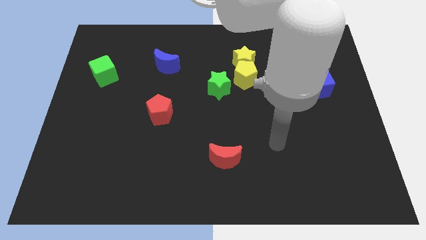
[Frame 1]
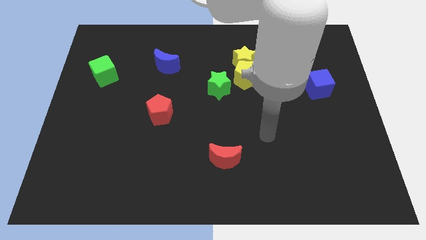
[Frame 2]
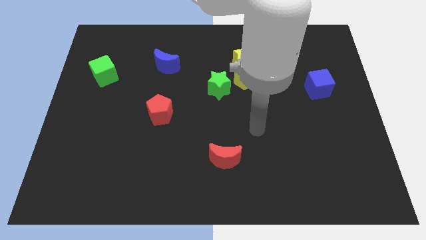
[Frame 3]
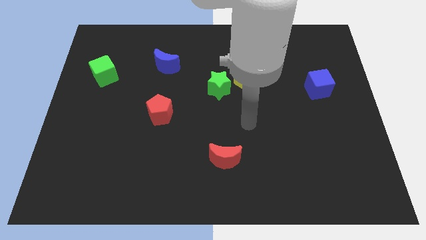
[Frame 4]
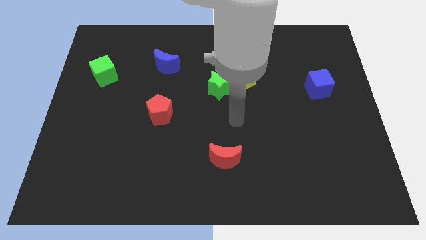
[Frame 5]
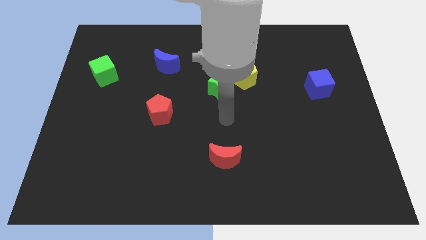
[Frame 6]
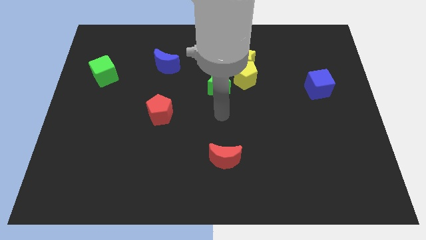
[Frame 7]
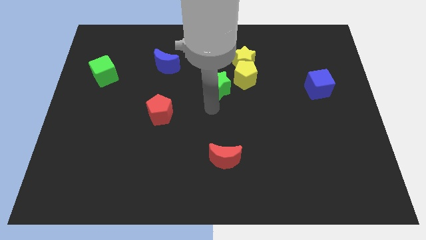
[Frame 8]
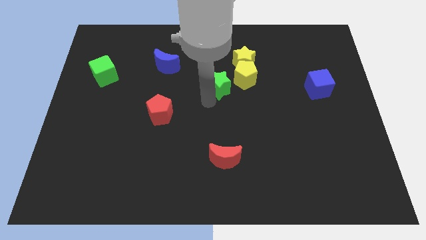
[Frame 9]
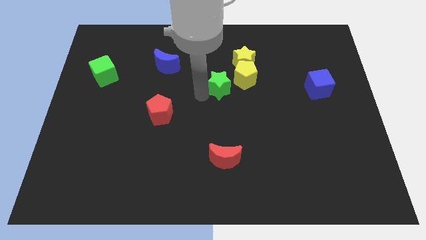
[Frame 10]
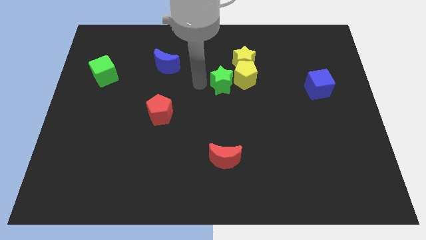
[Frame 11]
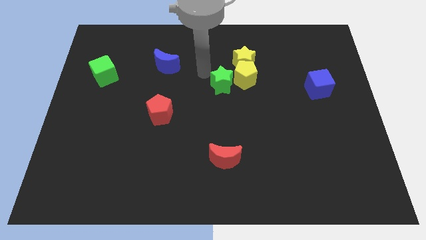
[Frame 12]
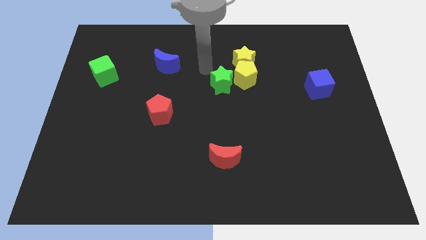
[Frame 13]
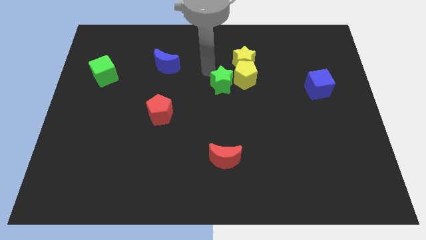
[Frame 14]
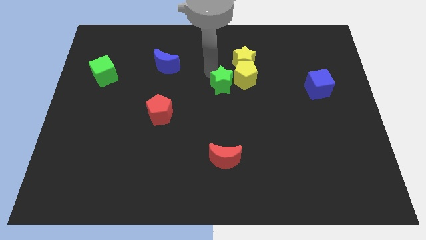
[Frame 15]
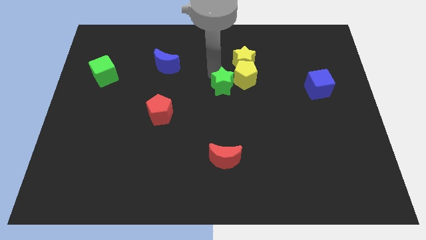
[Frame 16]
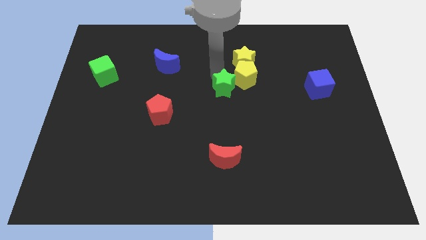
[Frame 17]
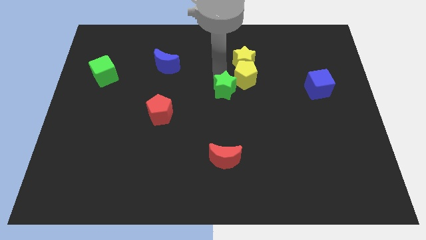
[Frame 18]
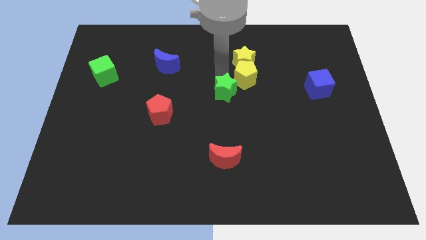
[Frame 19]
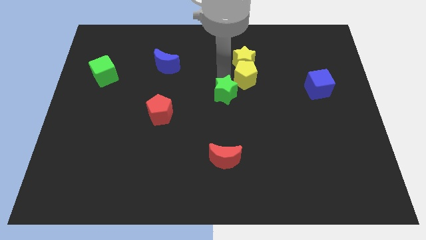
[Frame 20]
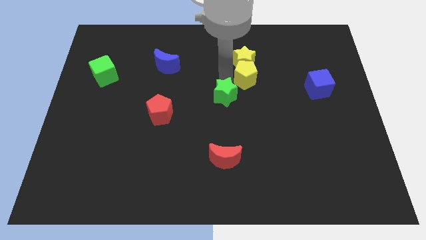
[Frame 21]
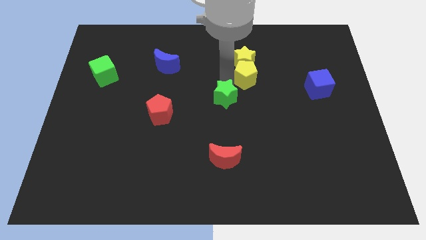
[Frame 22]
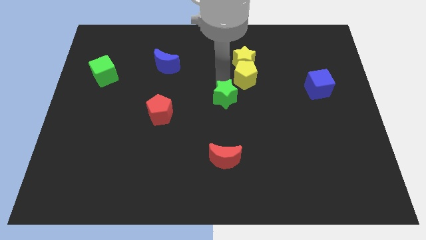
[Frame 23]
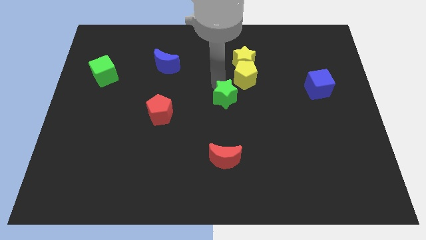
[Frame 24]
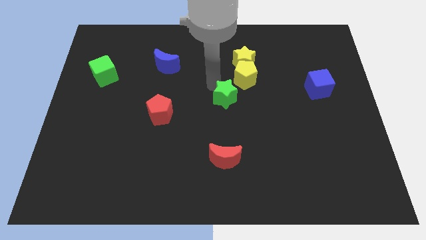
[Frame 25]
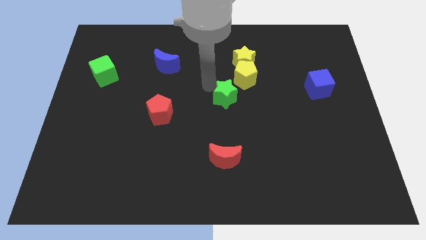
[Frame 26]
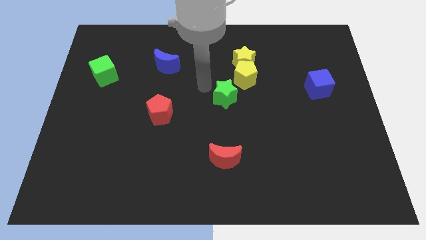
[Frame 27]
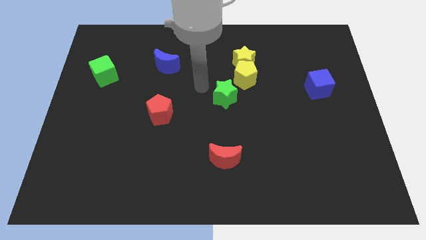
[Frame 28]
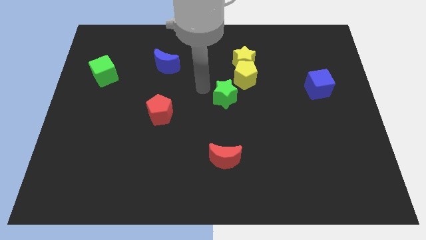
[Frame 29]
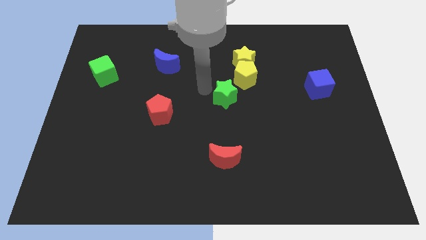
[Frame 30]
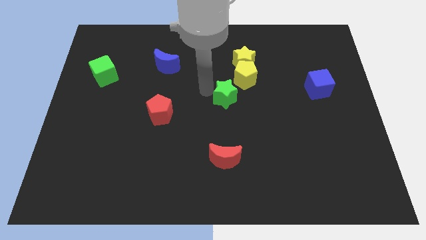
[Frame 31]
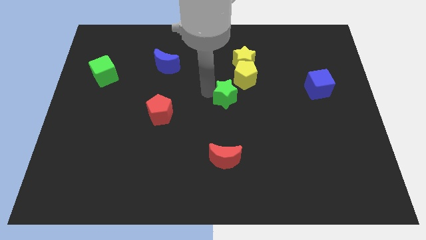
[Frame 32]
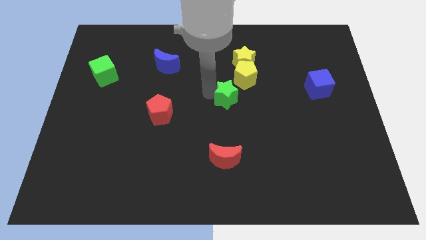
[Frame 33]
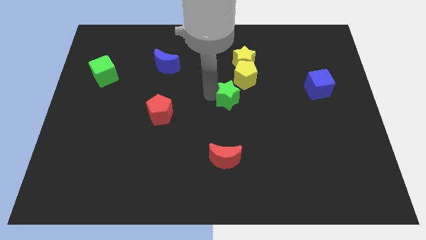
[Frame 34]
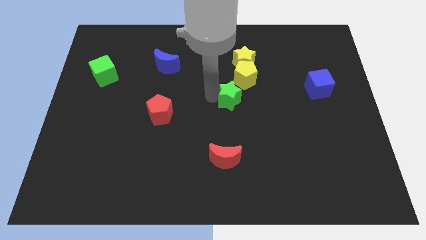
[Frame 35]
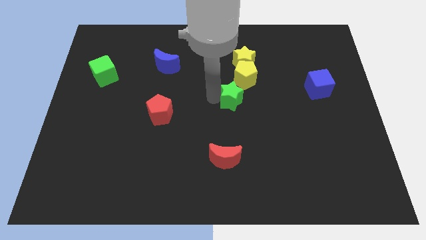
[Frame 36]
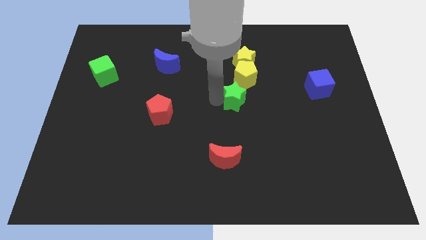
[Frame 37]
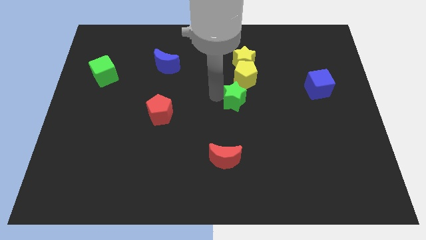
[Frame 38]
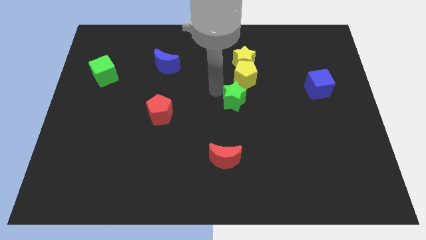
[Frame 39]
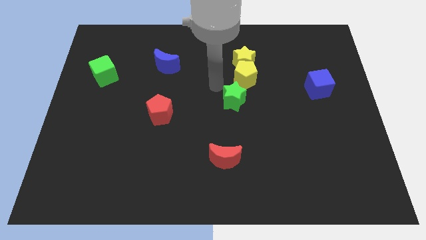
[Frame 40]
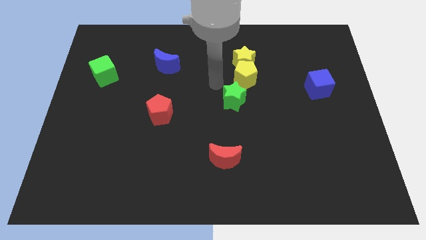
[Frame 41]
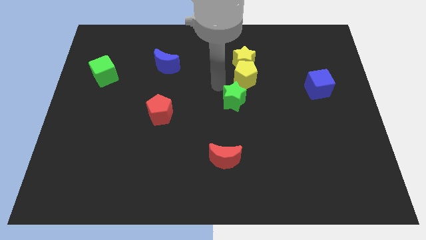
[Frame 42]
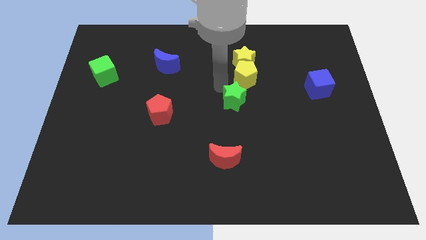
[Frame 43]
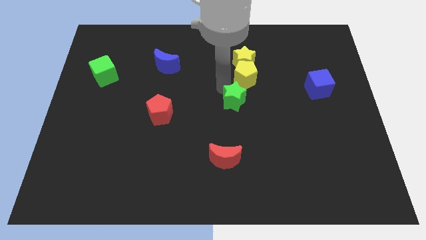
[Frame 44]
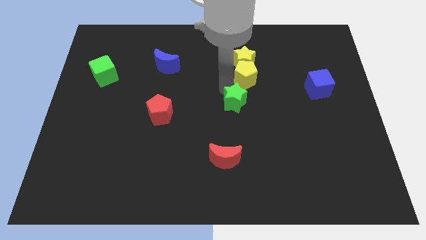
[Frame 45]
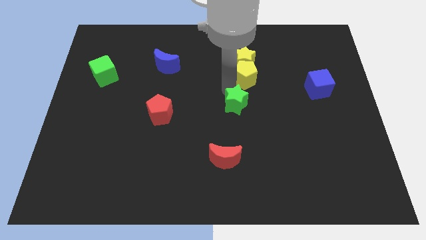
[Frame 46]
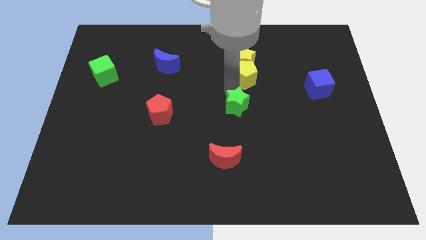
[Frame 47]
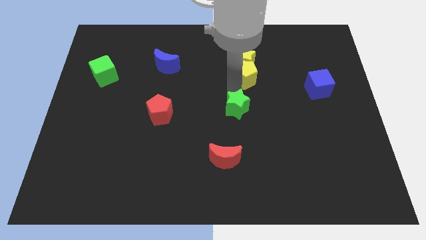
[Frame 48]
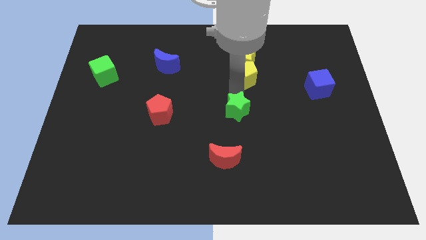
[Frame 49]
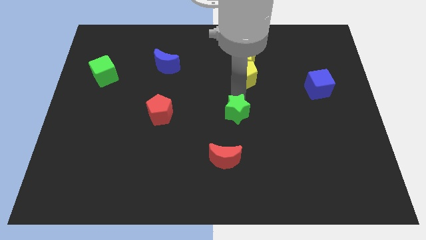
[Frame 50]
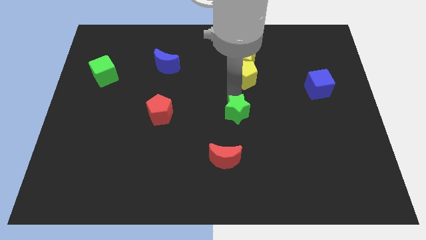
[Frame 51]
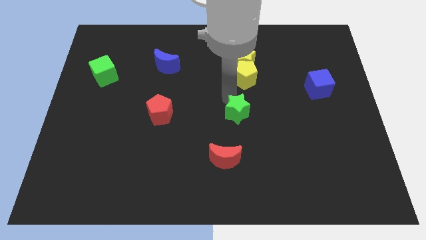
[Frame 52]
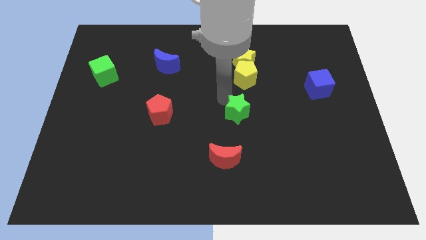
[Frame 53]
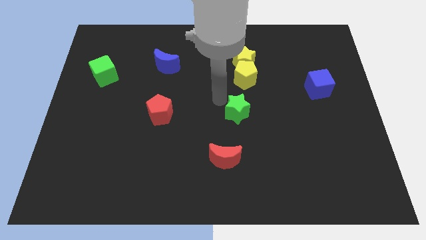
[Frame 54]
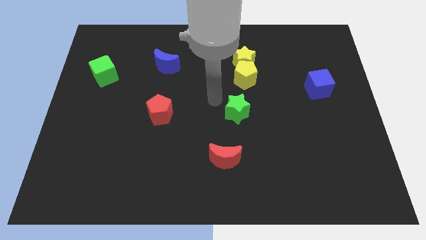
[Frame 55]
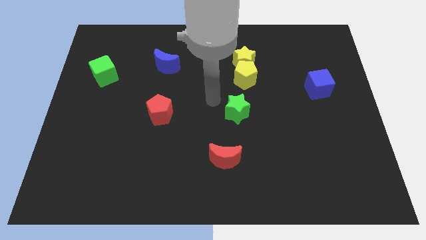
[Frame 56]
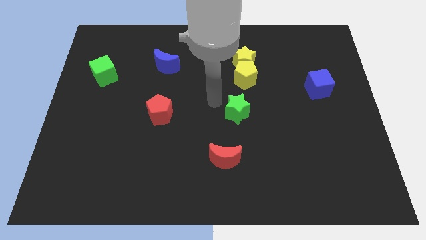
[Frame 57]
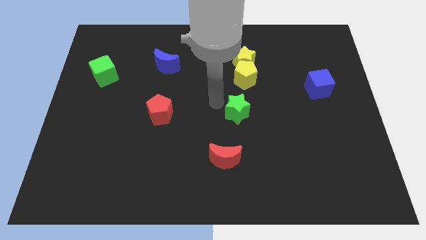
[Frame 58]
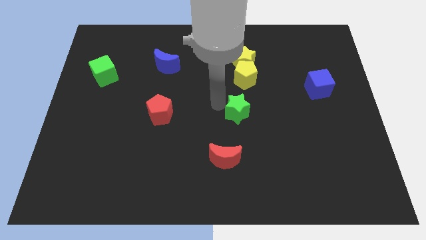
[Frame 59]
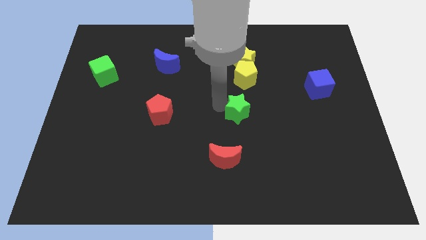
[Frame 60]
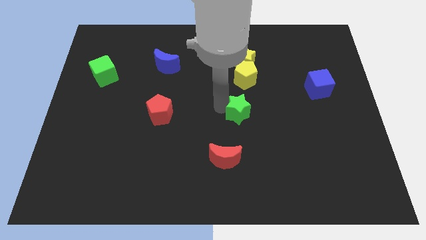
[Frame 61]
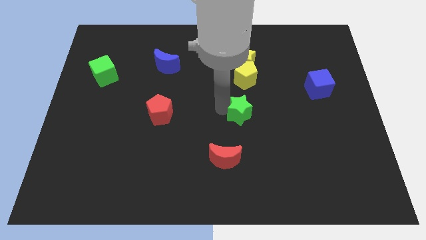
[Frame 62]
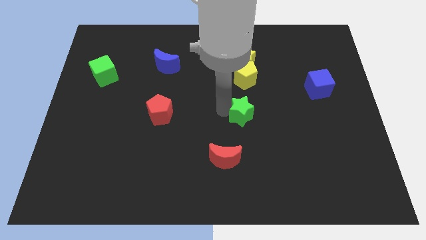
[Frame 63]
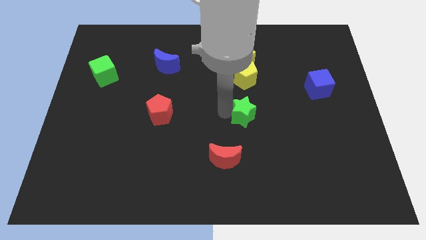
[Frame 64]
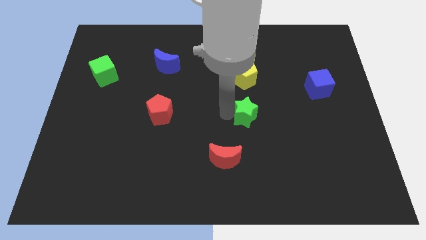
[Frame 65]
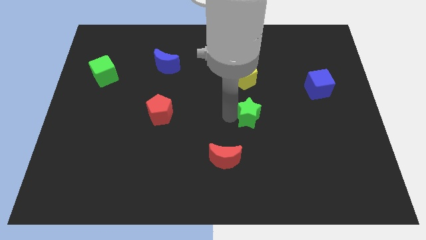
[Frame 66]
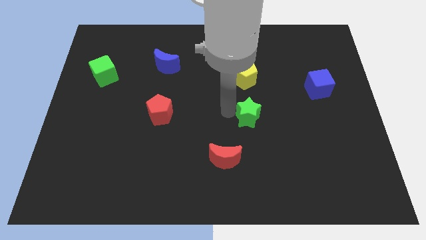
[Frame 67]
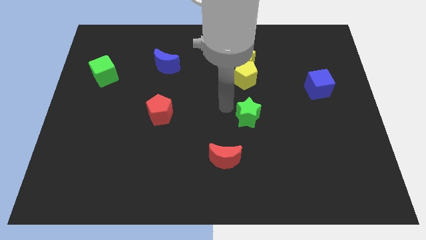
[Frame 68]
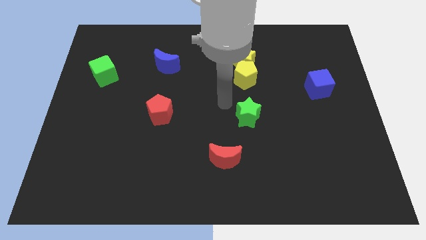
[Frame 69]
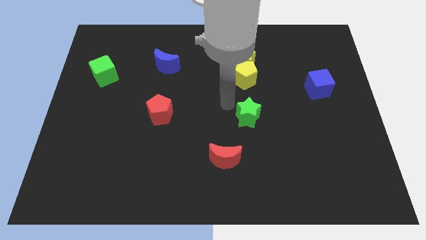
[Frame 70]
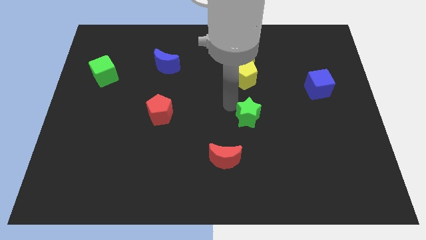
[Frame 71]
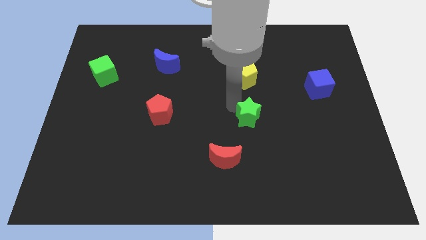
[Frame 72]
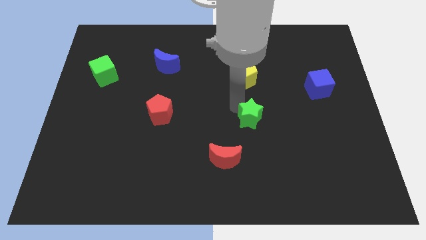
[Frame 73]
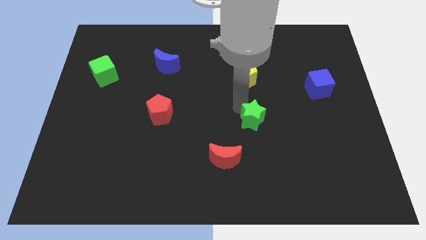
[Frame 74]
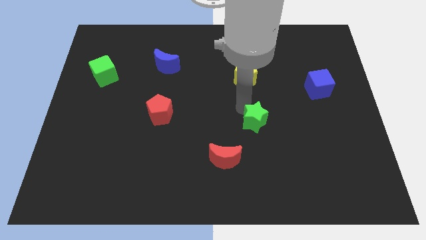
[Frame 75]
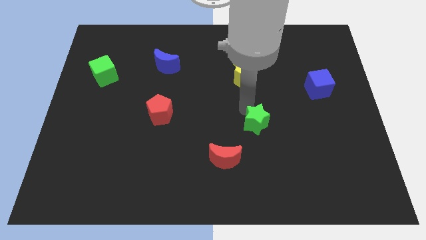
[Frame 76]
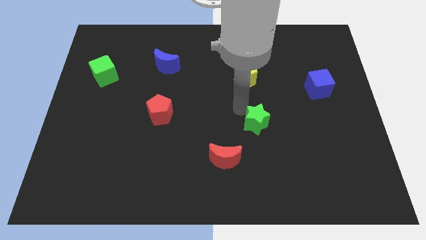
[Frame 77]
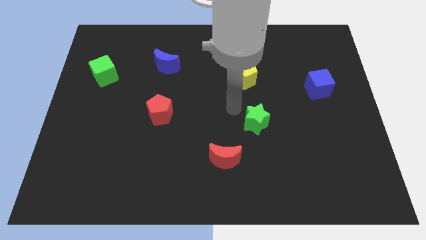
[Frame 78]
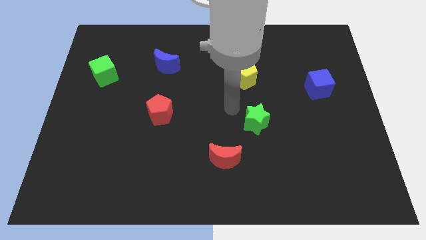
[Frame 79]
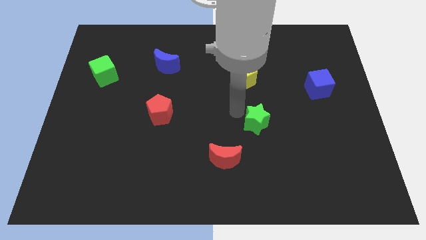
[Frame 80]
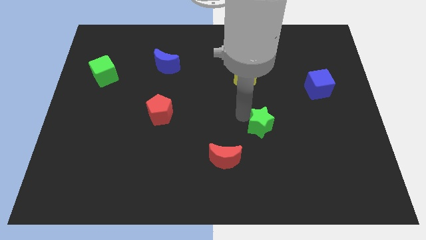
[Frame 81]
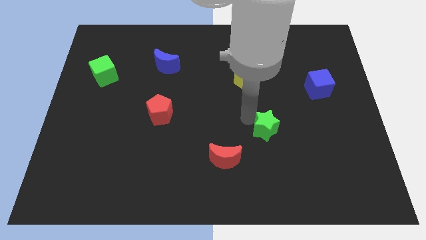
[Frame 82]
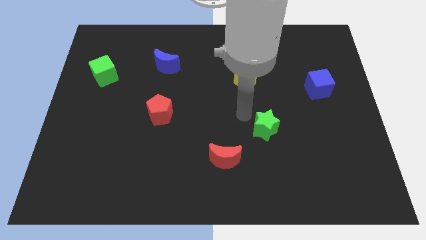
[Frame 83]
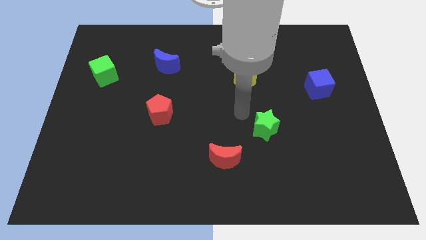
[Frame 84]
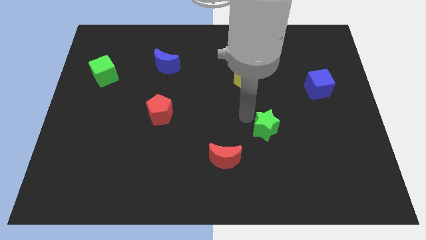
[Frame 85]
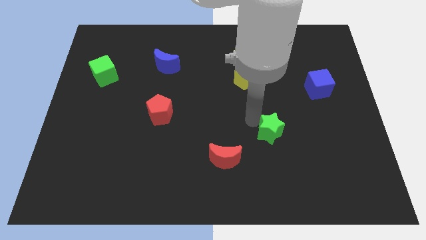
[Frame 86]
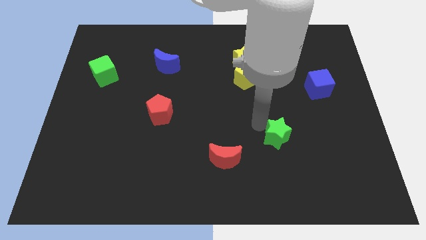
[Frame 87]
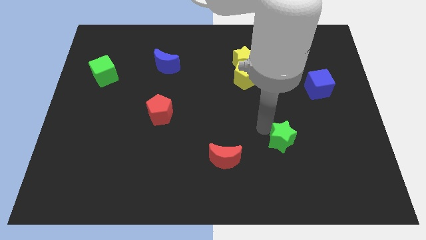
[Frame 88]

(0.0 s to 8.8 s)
slide the green star down and to the right diagonally
